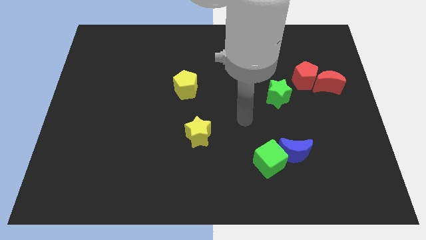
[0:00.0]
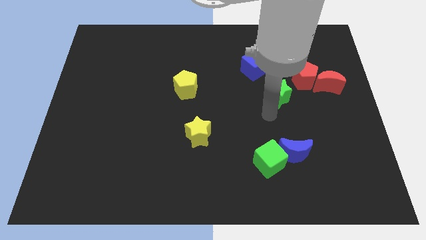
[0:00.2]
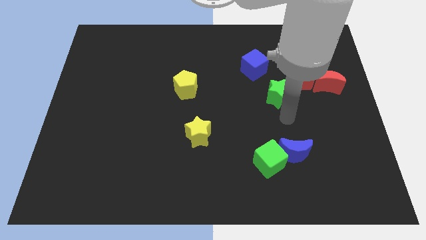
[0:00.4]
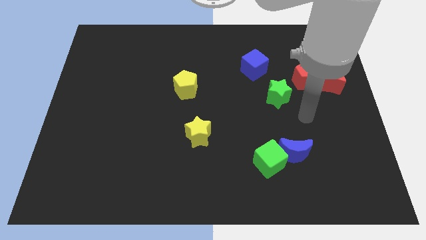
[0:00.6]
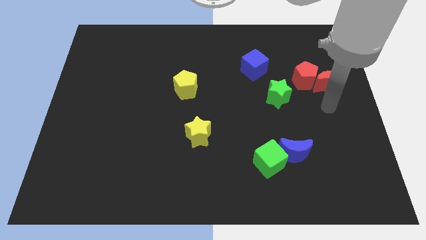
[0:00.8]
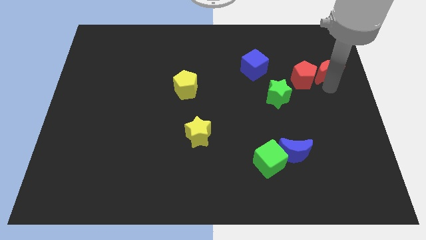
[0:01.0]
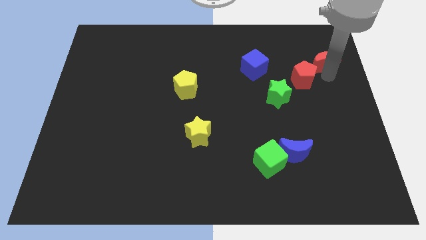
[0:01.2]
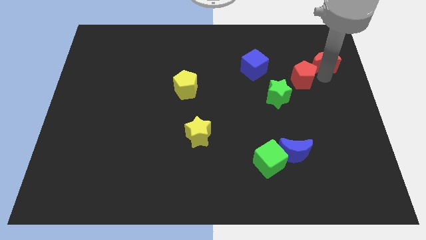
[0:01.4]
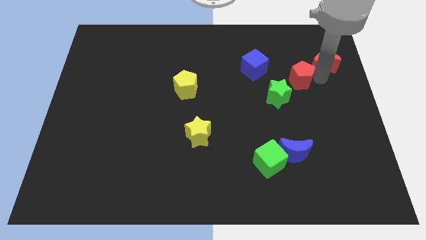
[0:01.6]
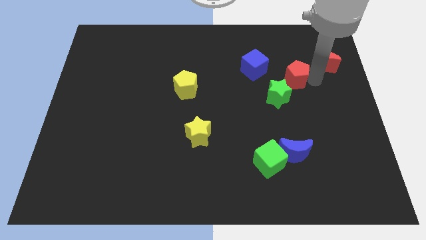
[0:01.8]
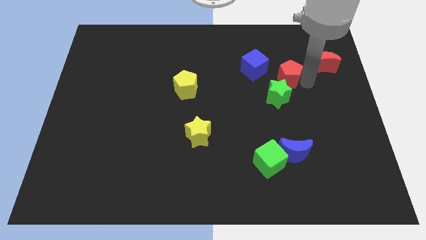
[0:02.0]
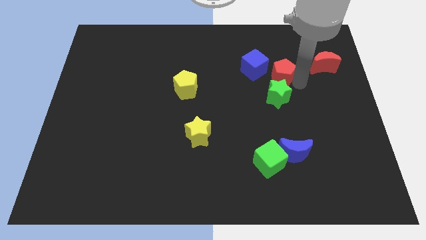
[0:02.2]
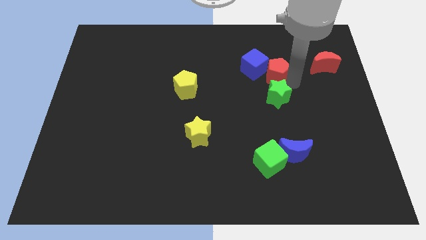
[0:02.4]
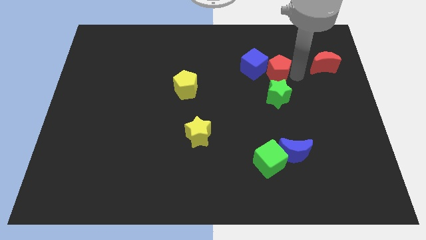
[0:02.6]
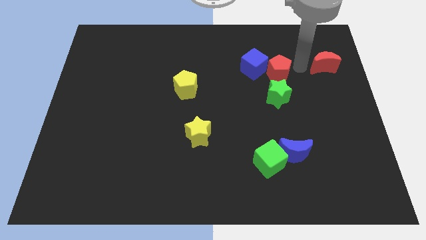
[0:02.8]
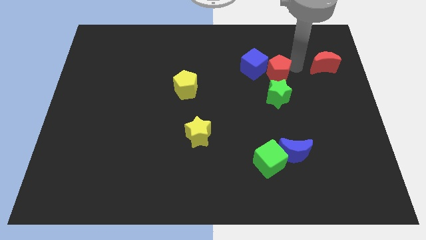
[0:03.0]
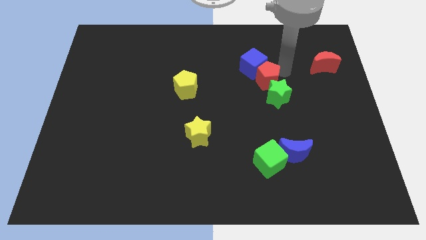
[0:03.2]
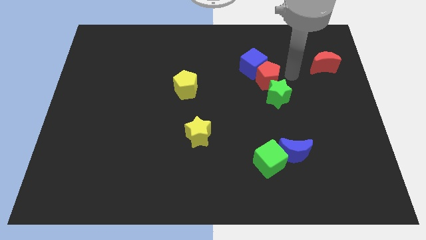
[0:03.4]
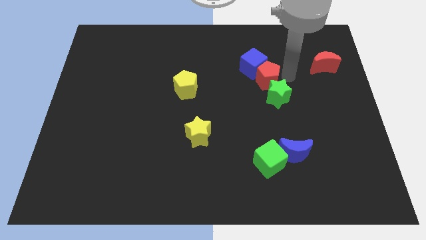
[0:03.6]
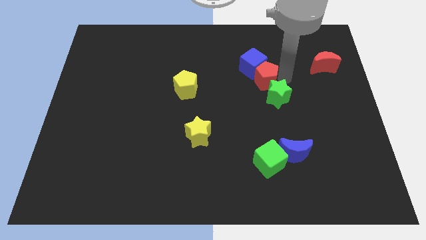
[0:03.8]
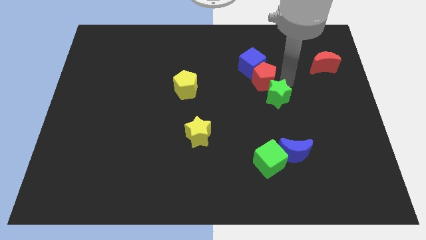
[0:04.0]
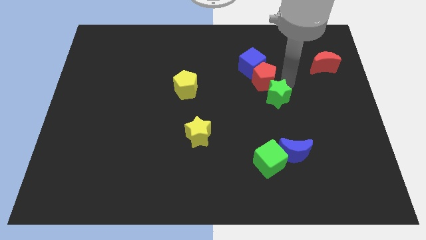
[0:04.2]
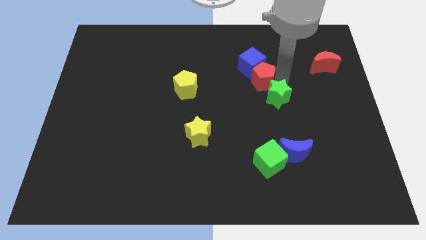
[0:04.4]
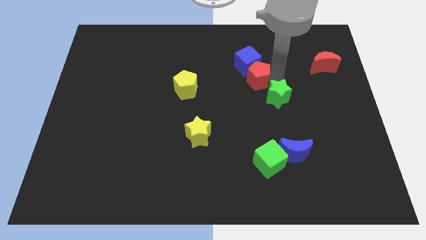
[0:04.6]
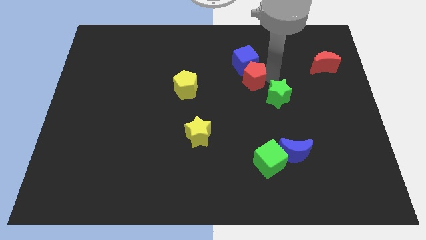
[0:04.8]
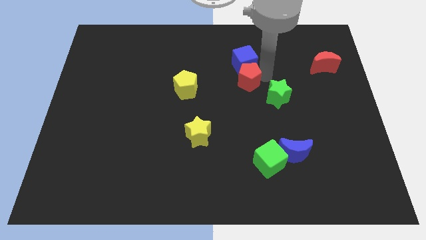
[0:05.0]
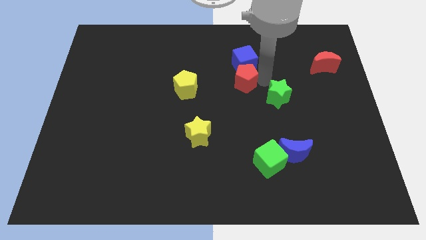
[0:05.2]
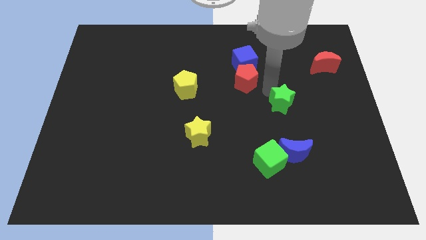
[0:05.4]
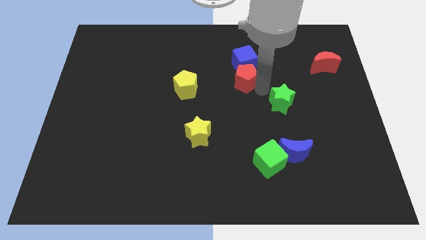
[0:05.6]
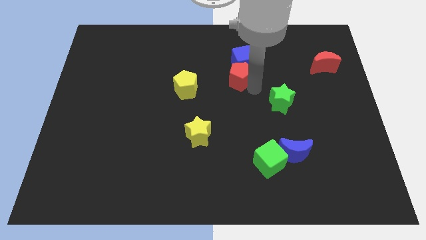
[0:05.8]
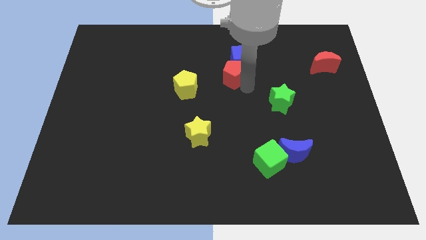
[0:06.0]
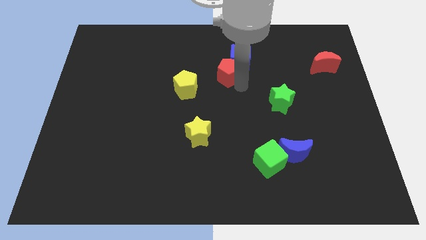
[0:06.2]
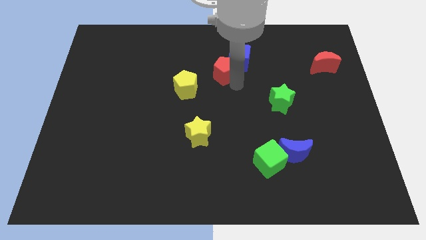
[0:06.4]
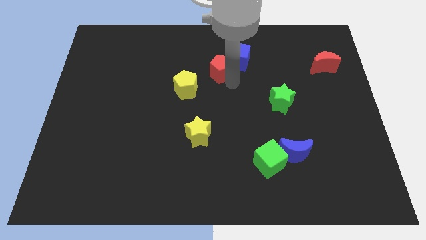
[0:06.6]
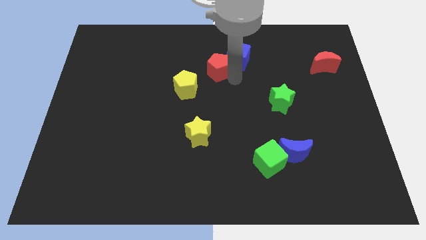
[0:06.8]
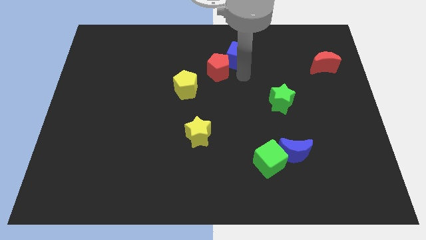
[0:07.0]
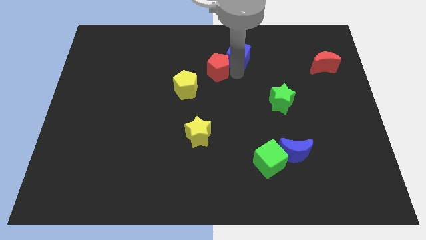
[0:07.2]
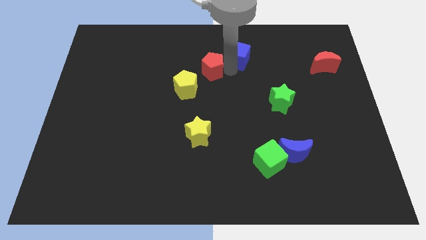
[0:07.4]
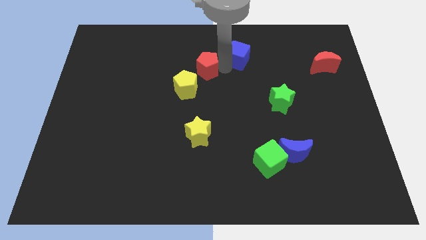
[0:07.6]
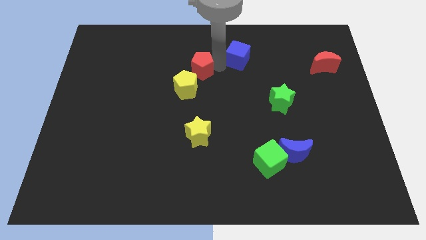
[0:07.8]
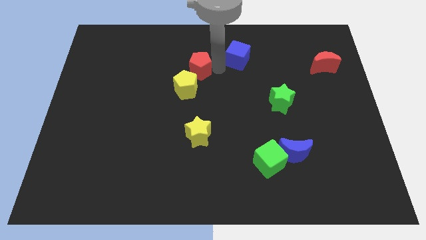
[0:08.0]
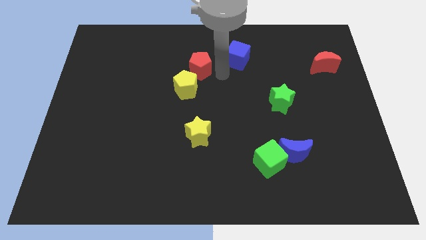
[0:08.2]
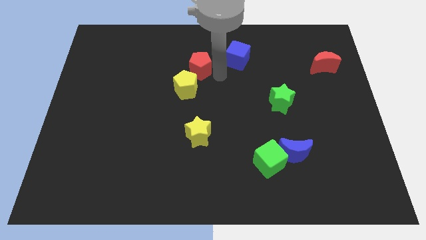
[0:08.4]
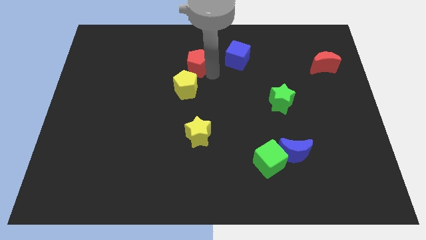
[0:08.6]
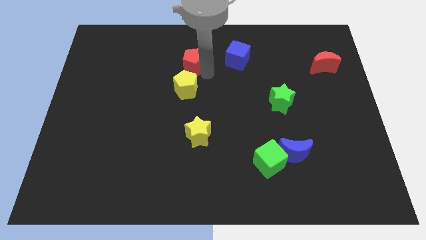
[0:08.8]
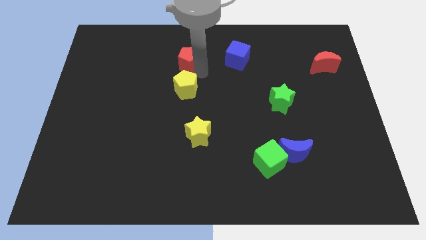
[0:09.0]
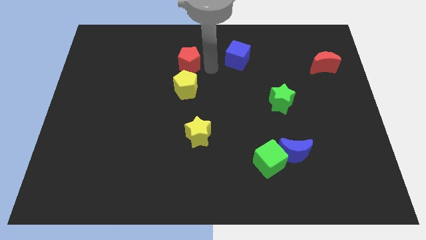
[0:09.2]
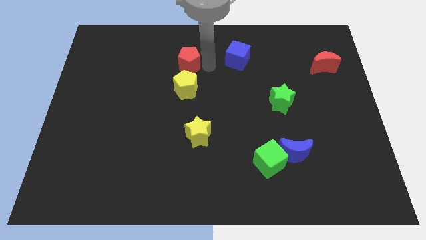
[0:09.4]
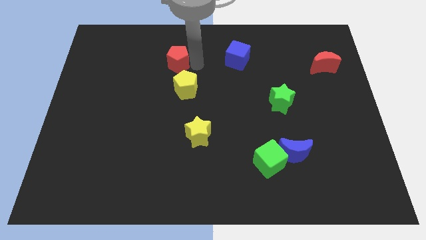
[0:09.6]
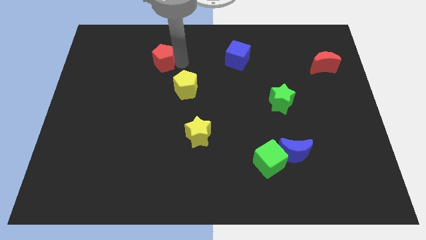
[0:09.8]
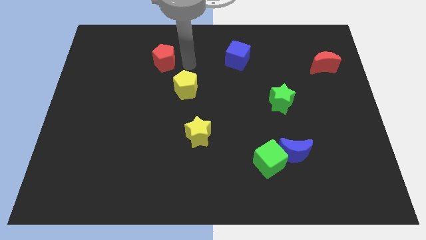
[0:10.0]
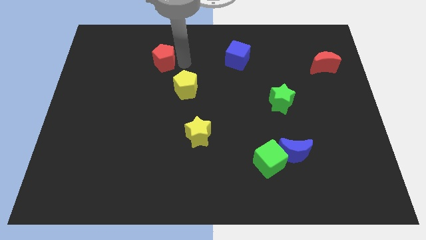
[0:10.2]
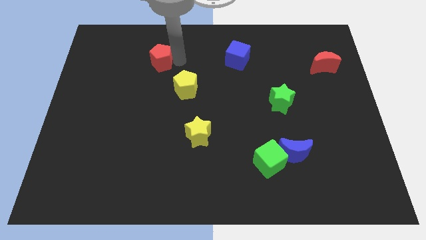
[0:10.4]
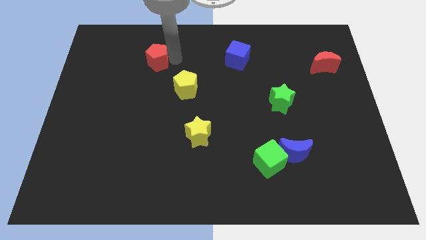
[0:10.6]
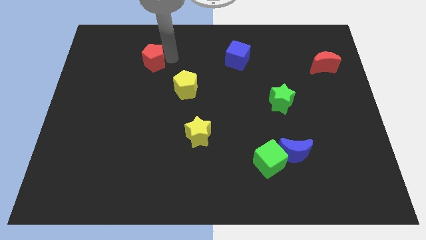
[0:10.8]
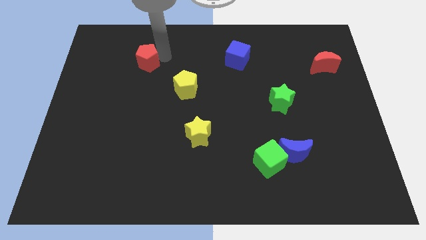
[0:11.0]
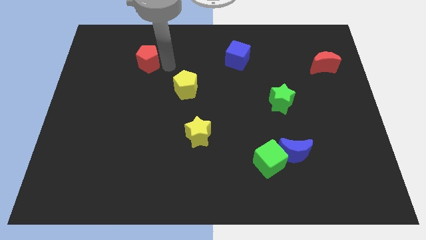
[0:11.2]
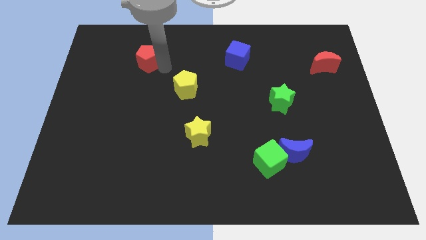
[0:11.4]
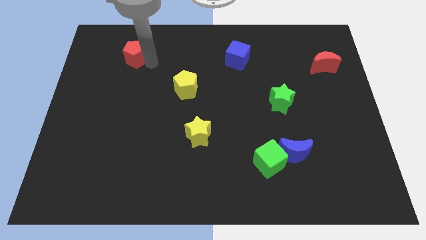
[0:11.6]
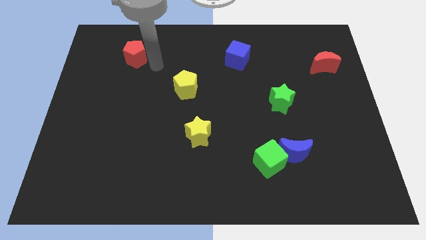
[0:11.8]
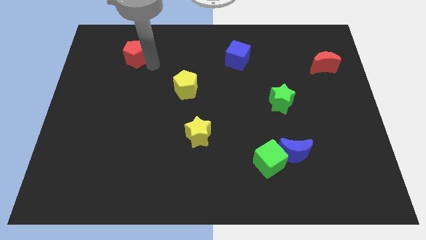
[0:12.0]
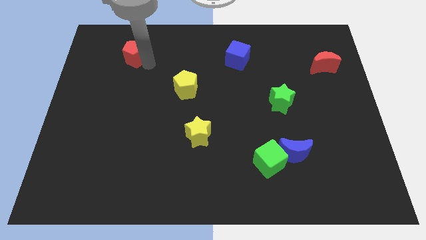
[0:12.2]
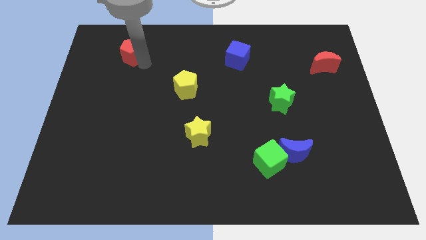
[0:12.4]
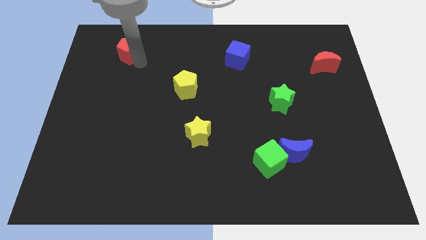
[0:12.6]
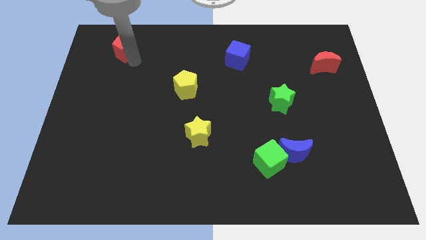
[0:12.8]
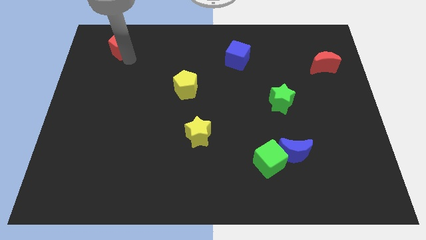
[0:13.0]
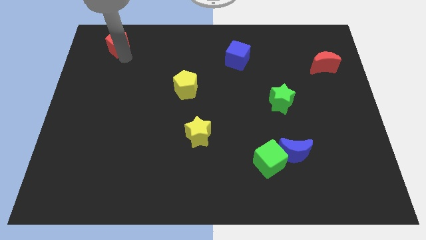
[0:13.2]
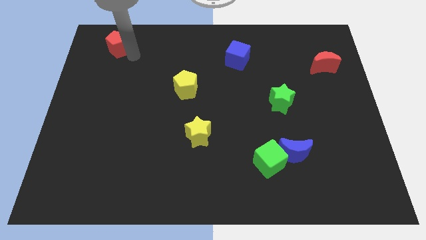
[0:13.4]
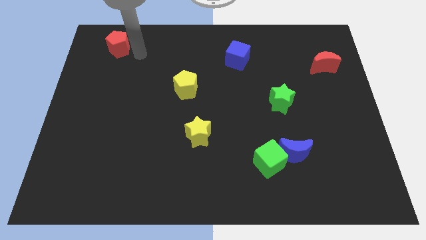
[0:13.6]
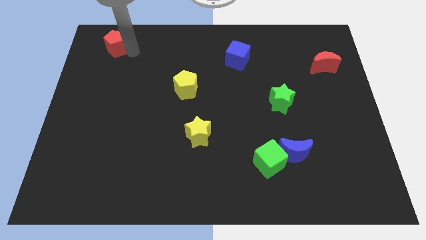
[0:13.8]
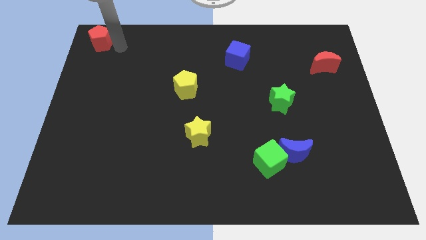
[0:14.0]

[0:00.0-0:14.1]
slide the red pentagon to the top left of the board
